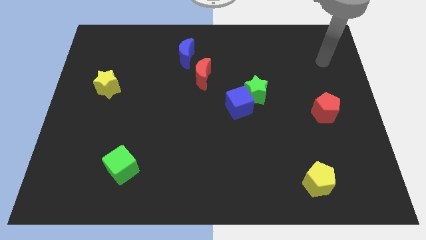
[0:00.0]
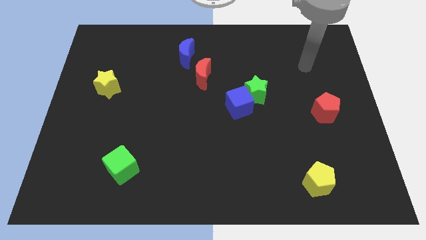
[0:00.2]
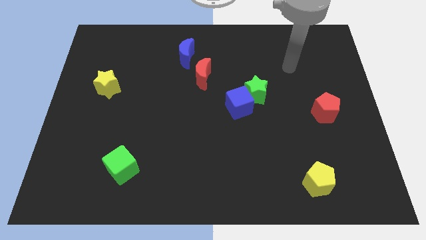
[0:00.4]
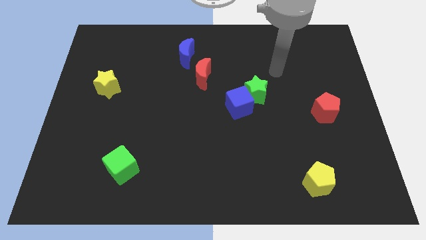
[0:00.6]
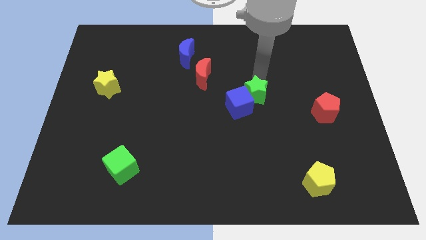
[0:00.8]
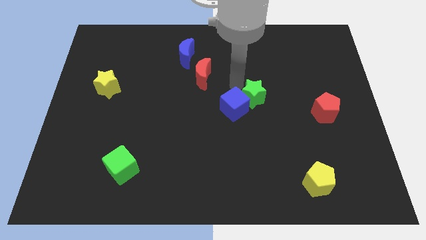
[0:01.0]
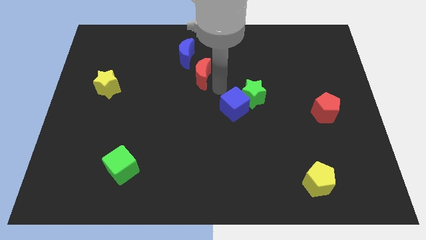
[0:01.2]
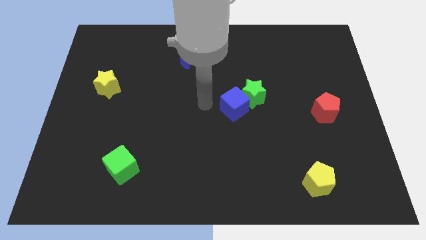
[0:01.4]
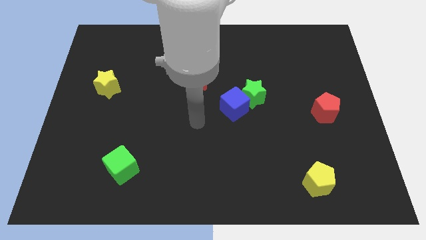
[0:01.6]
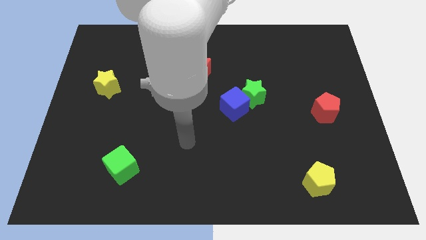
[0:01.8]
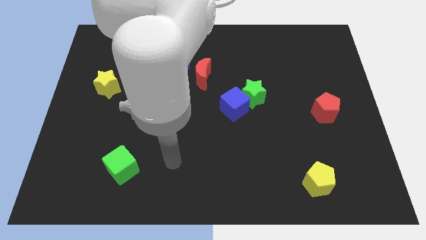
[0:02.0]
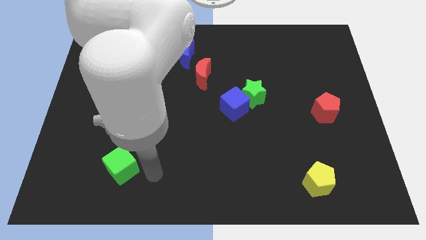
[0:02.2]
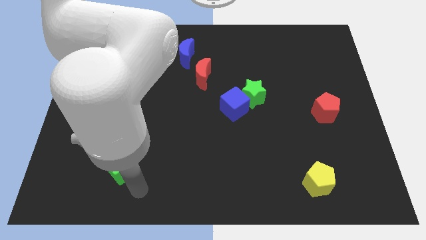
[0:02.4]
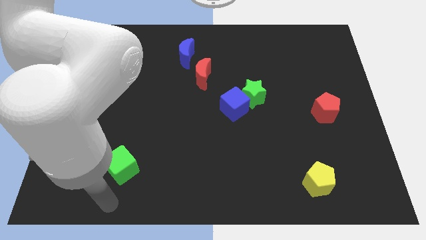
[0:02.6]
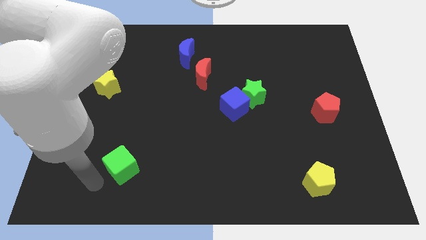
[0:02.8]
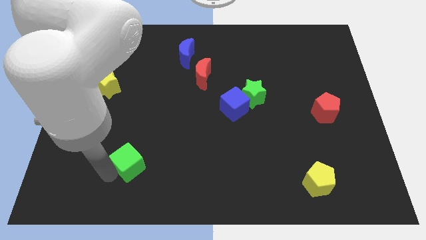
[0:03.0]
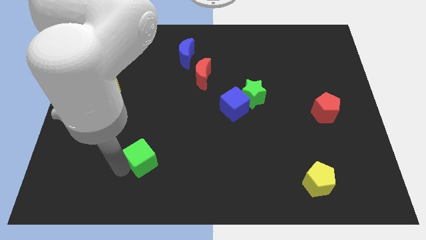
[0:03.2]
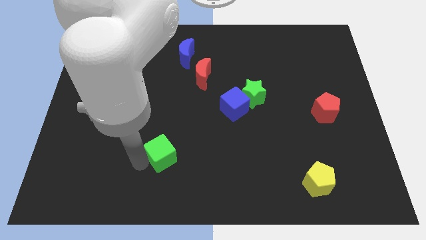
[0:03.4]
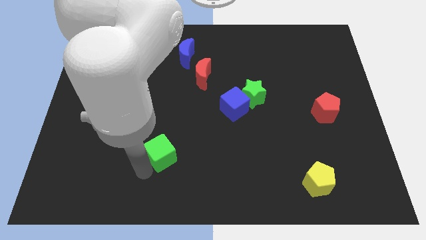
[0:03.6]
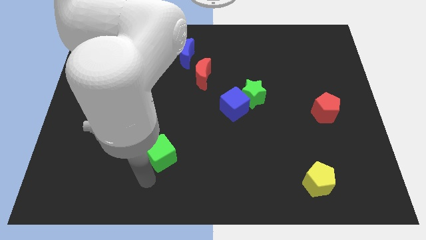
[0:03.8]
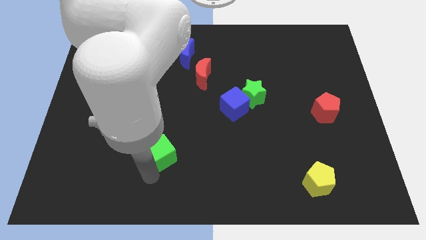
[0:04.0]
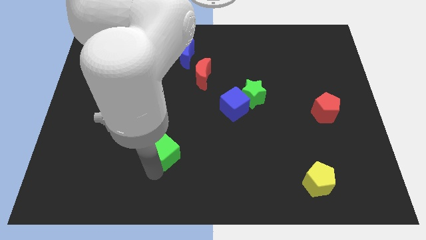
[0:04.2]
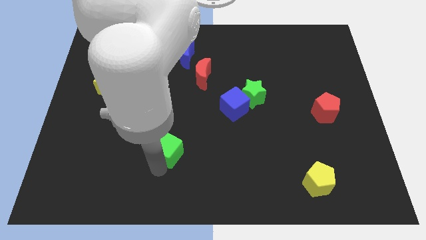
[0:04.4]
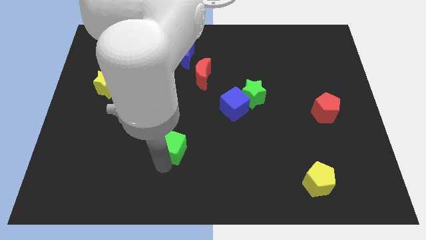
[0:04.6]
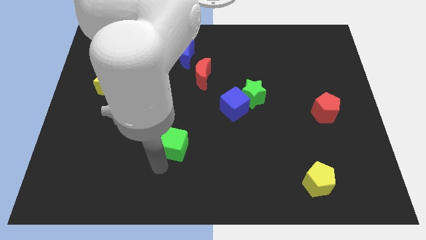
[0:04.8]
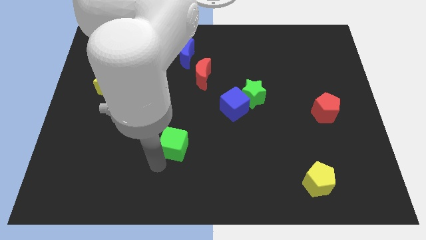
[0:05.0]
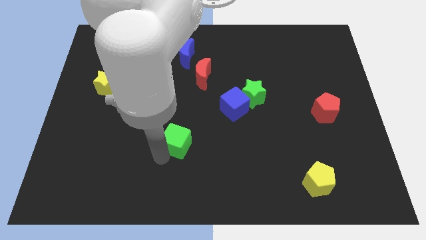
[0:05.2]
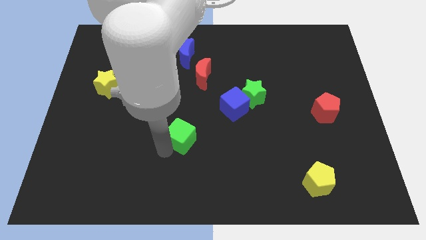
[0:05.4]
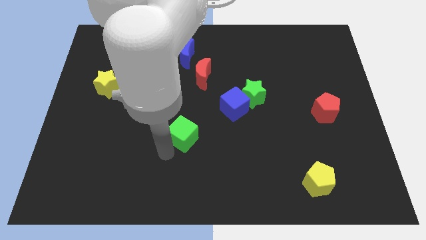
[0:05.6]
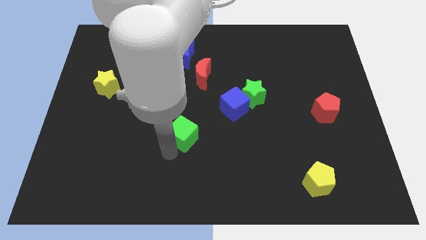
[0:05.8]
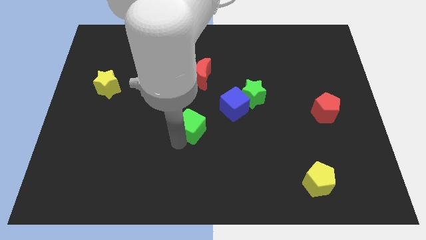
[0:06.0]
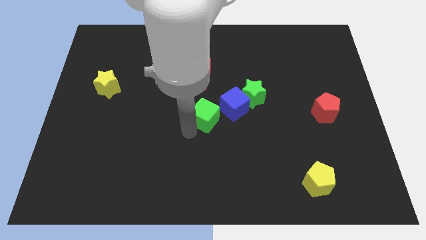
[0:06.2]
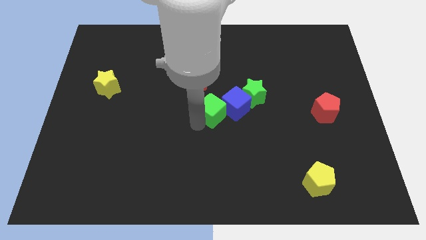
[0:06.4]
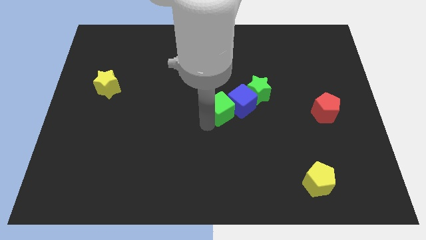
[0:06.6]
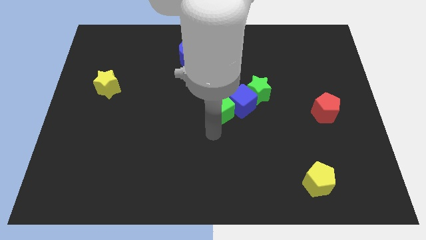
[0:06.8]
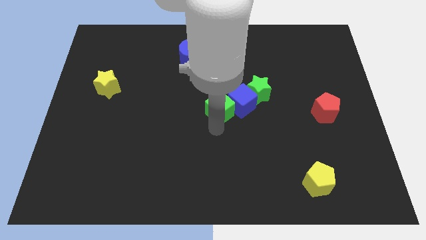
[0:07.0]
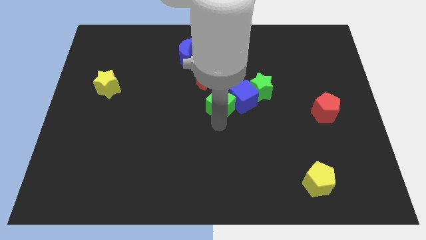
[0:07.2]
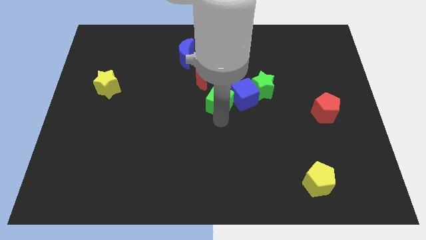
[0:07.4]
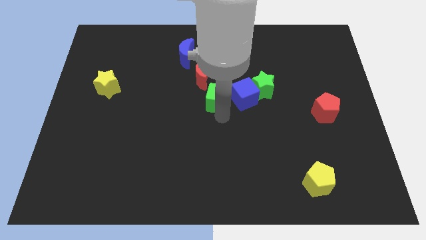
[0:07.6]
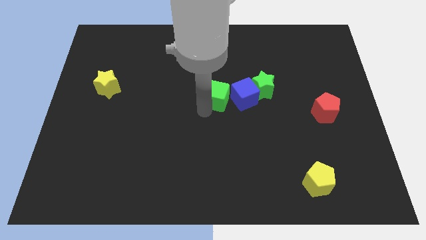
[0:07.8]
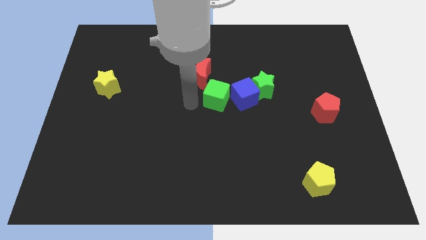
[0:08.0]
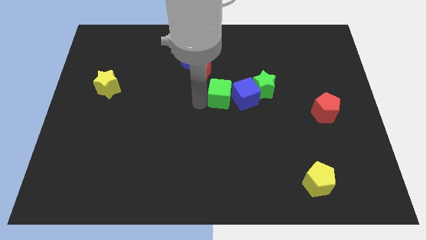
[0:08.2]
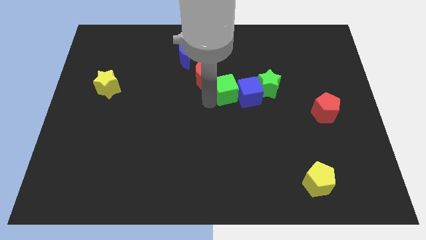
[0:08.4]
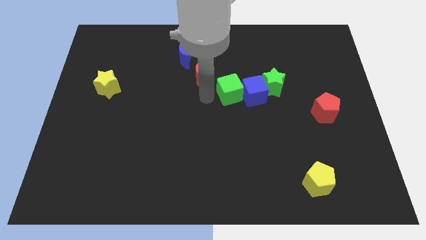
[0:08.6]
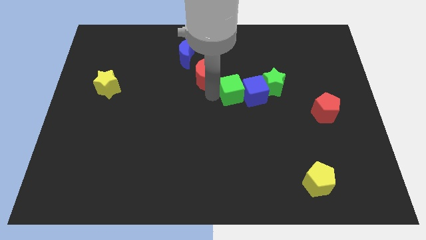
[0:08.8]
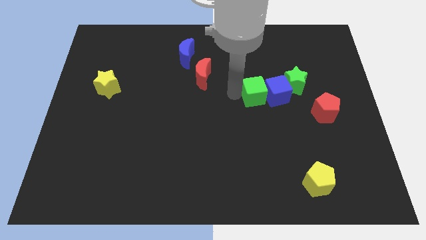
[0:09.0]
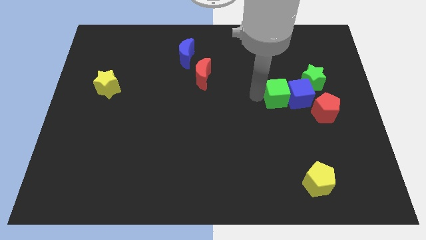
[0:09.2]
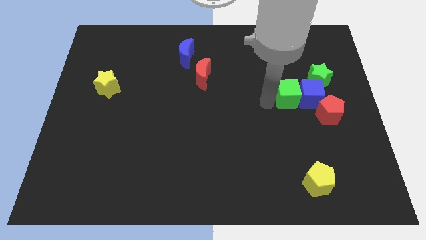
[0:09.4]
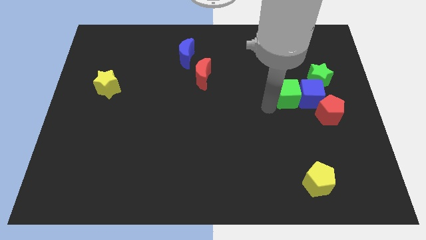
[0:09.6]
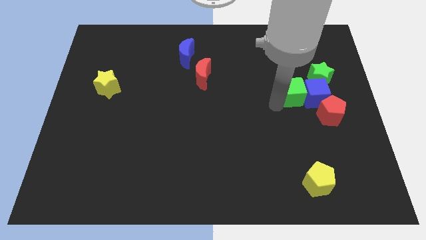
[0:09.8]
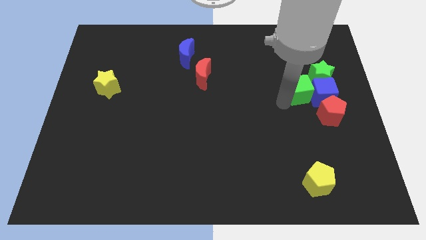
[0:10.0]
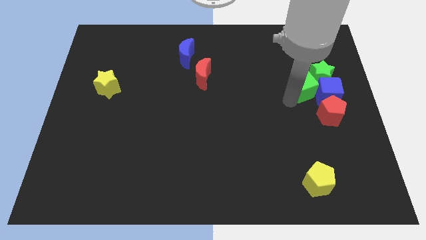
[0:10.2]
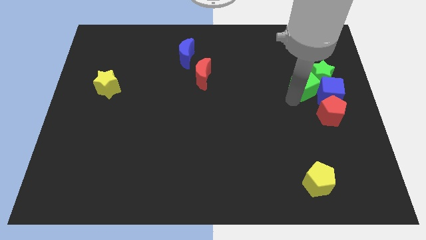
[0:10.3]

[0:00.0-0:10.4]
move the green cube towards the green star

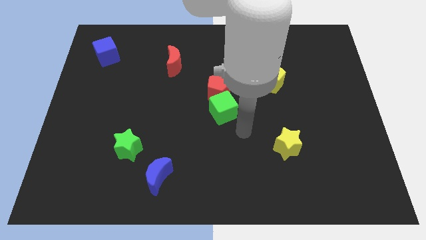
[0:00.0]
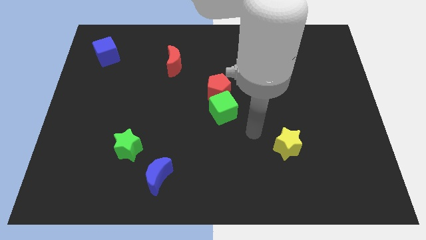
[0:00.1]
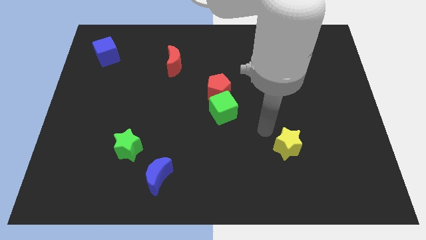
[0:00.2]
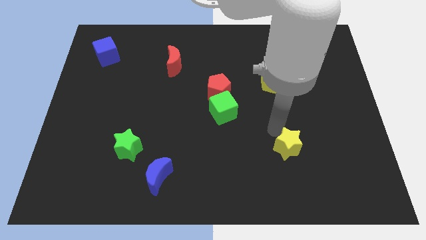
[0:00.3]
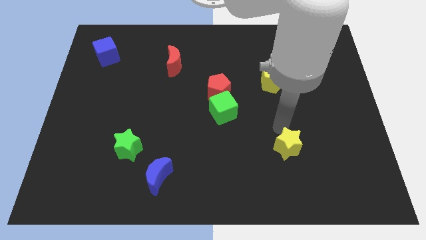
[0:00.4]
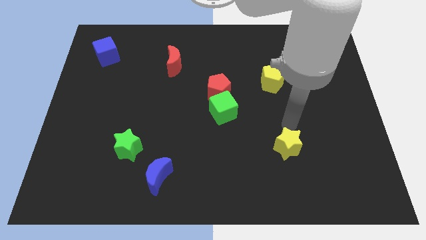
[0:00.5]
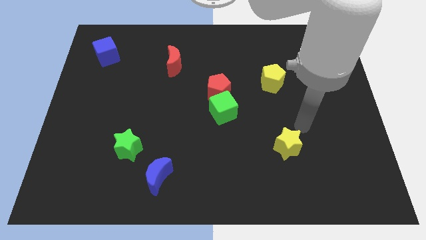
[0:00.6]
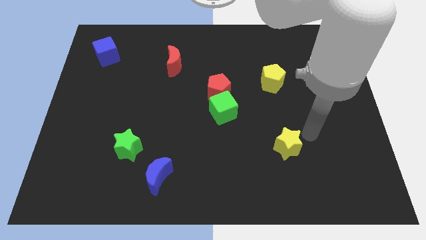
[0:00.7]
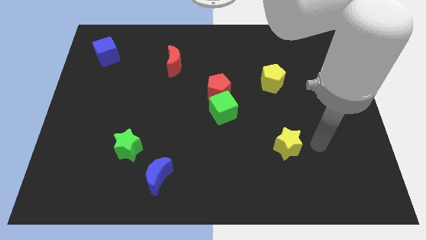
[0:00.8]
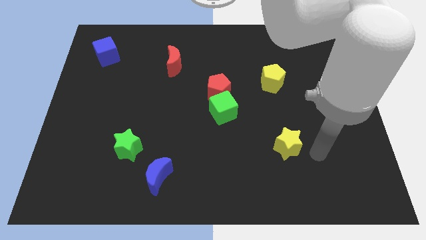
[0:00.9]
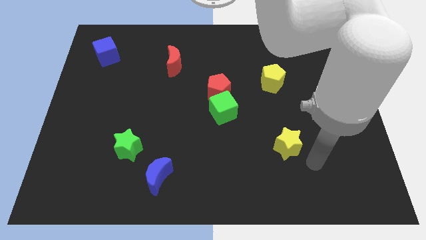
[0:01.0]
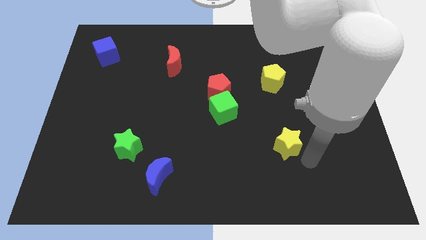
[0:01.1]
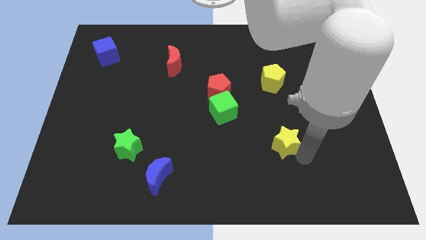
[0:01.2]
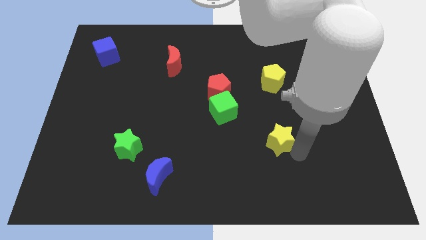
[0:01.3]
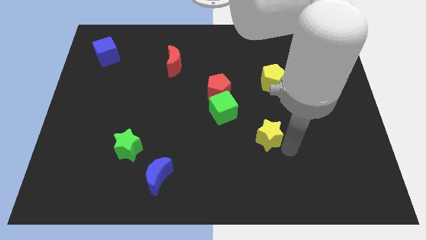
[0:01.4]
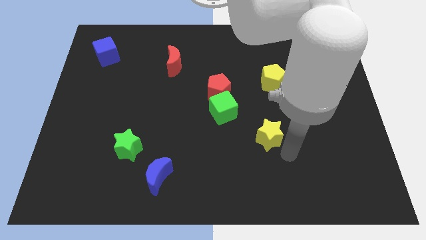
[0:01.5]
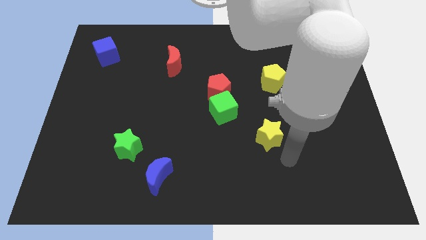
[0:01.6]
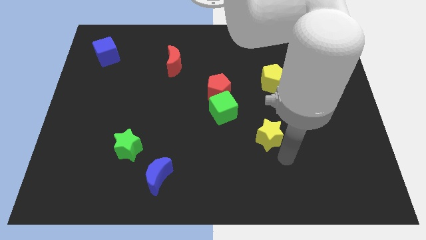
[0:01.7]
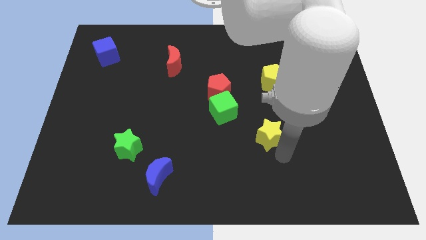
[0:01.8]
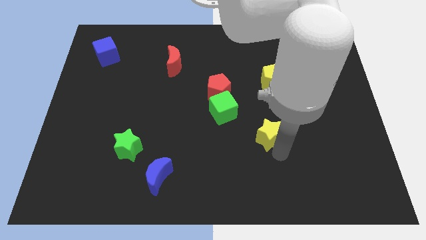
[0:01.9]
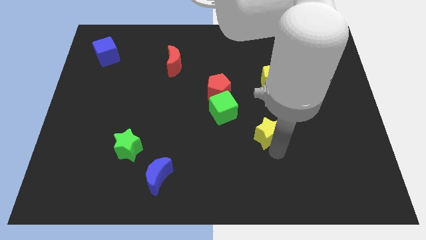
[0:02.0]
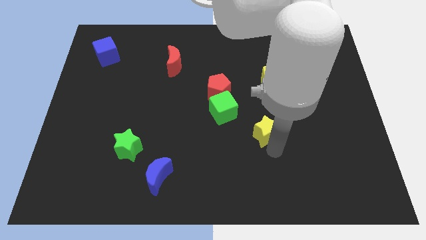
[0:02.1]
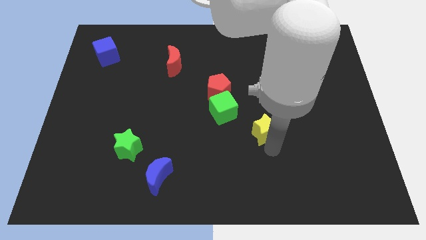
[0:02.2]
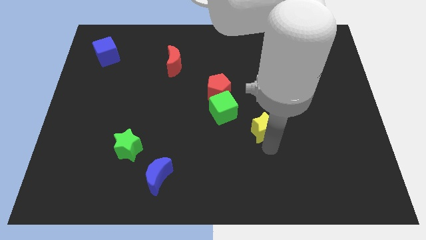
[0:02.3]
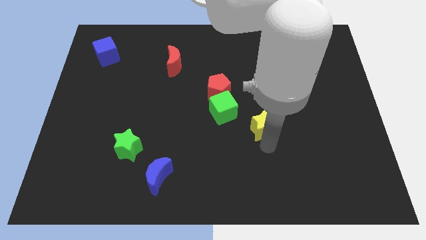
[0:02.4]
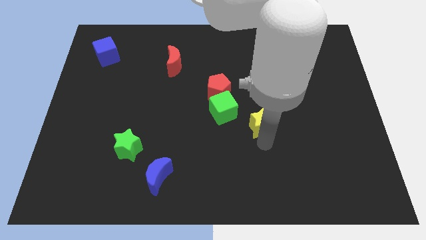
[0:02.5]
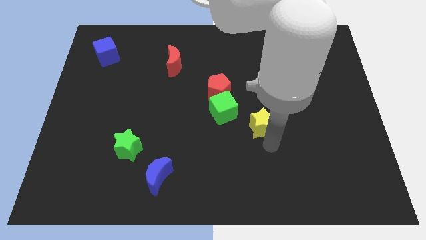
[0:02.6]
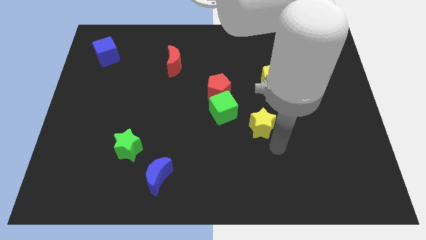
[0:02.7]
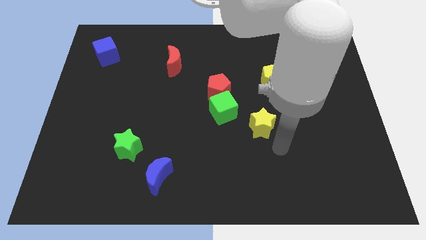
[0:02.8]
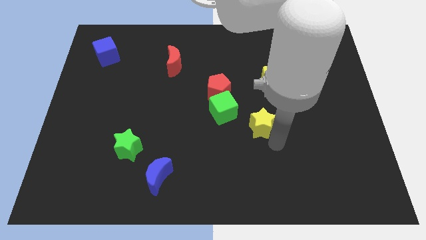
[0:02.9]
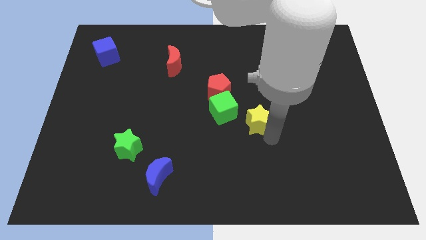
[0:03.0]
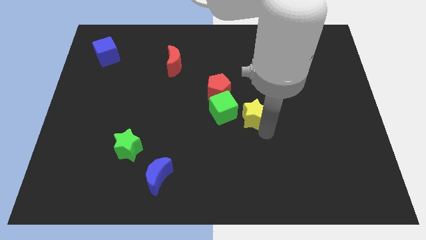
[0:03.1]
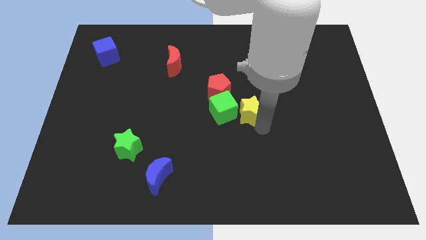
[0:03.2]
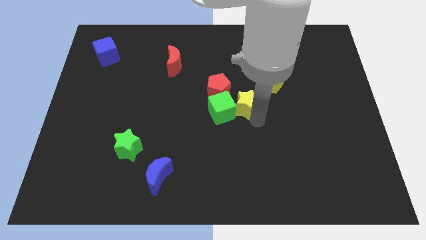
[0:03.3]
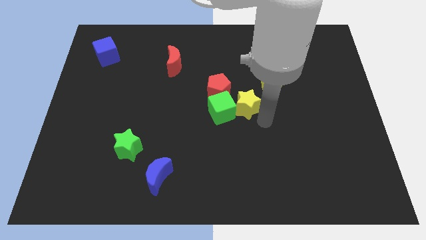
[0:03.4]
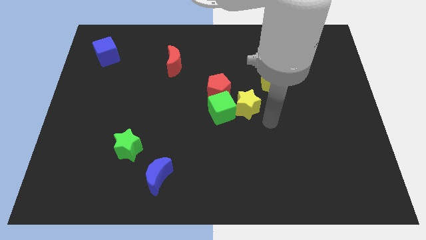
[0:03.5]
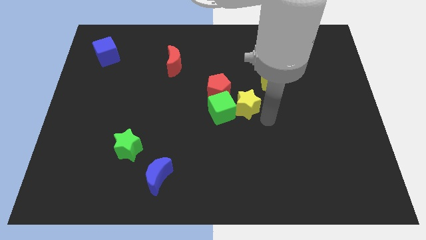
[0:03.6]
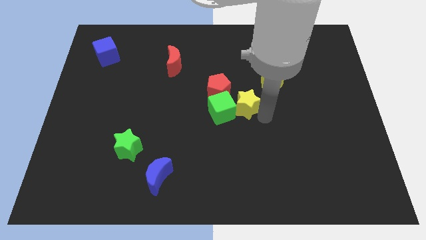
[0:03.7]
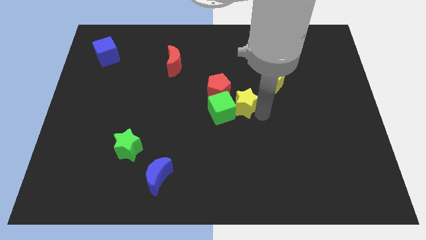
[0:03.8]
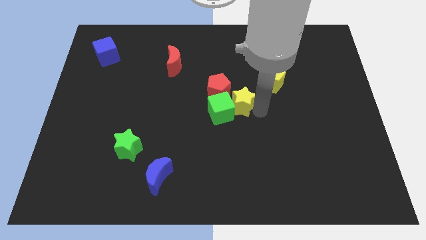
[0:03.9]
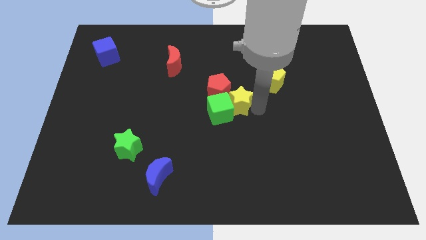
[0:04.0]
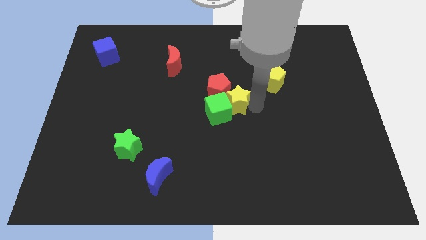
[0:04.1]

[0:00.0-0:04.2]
put the yellow star towards the red pentagon
